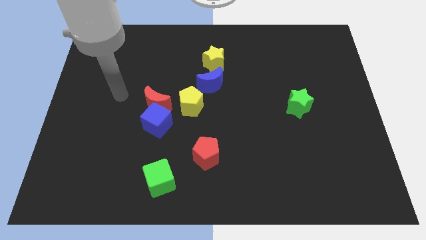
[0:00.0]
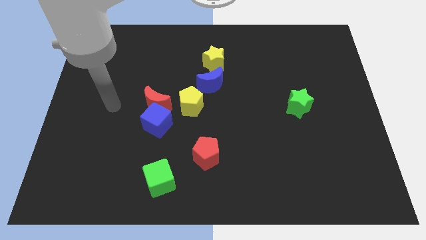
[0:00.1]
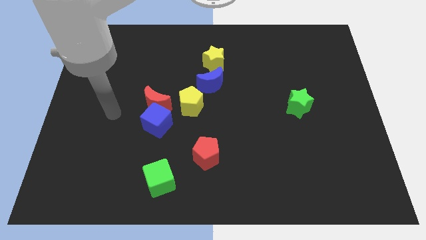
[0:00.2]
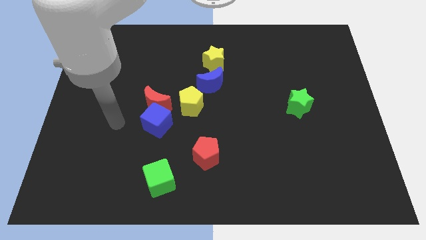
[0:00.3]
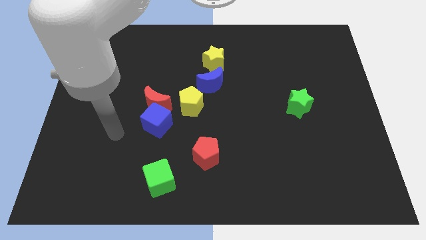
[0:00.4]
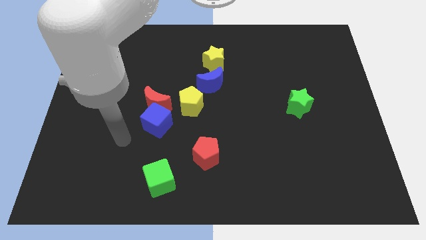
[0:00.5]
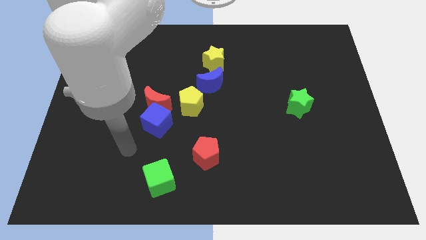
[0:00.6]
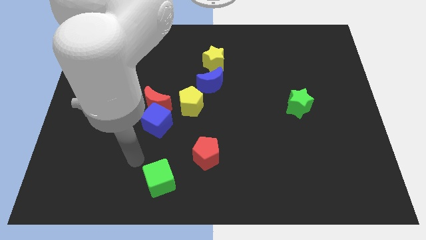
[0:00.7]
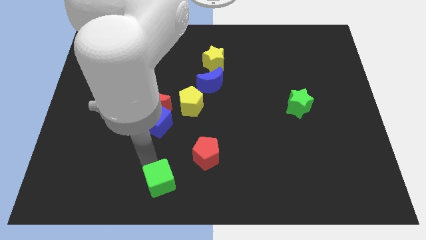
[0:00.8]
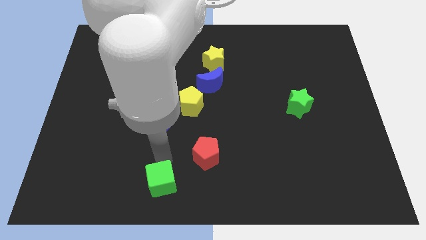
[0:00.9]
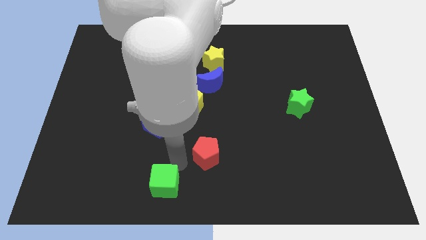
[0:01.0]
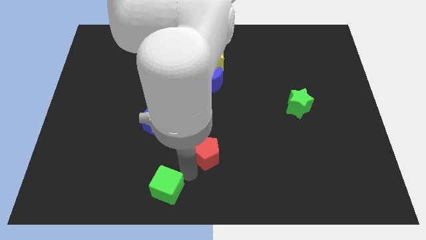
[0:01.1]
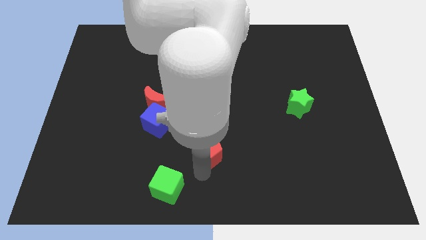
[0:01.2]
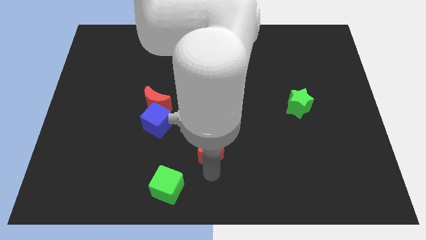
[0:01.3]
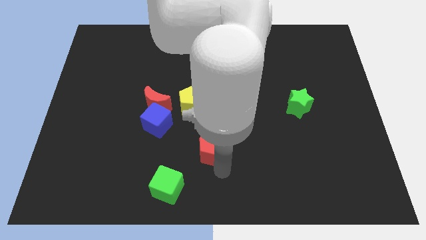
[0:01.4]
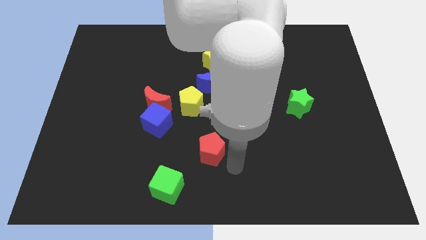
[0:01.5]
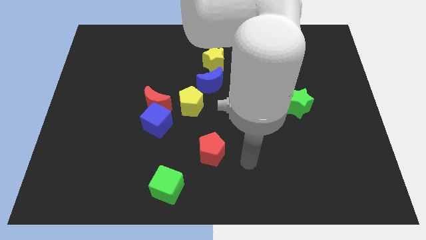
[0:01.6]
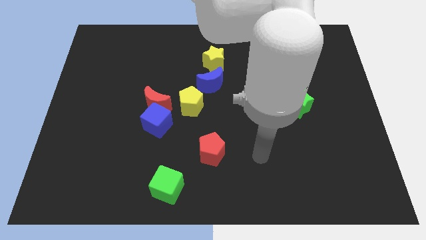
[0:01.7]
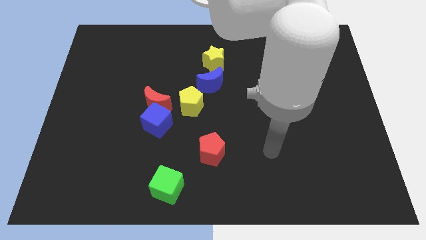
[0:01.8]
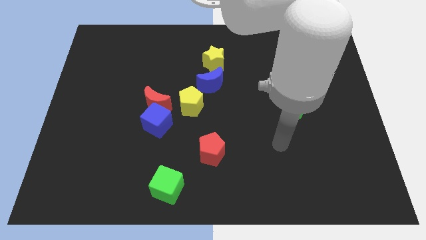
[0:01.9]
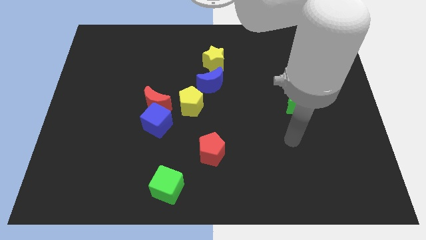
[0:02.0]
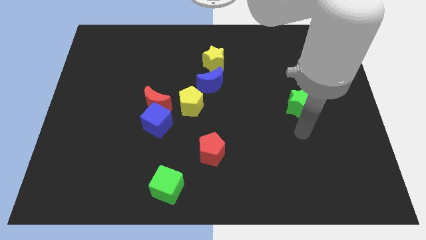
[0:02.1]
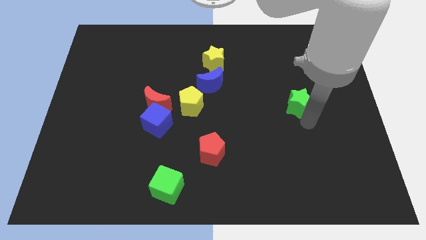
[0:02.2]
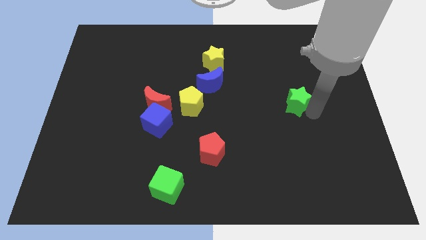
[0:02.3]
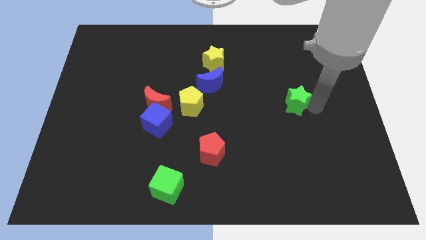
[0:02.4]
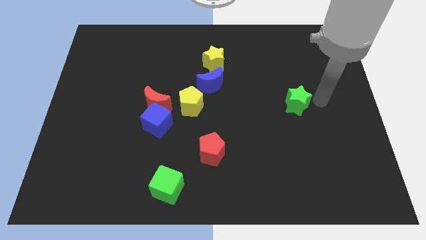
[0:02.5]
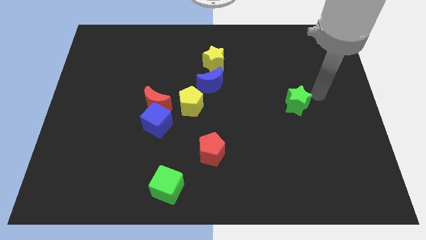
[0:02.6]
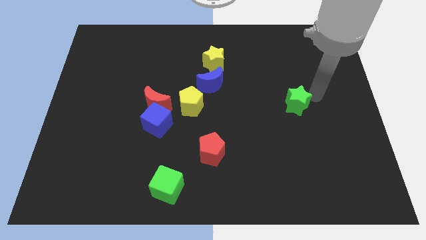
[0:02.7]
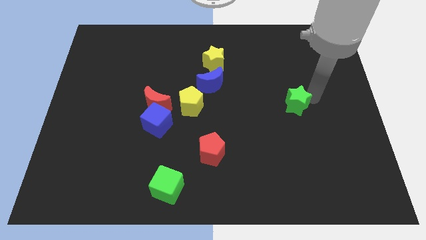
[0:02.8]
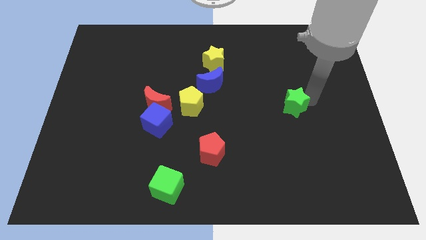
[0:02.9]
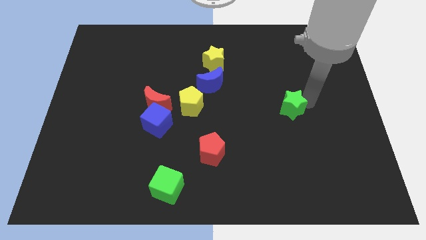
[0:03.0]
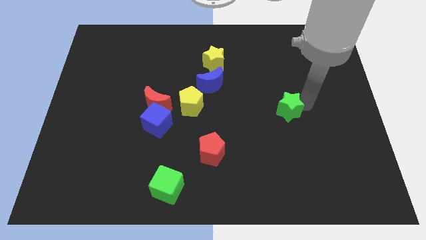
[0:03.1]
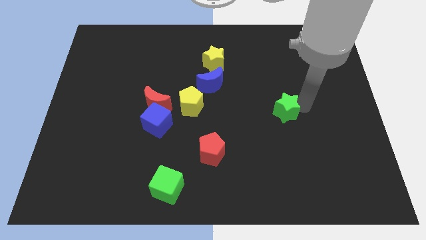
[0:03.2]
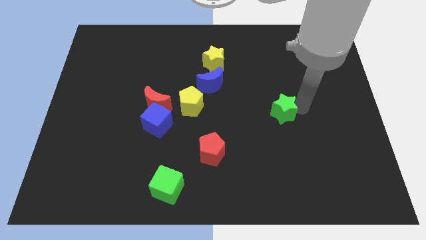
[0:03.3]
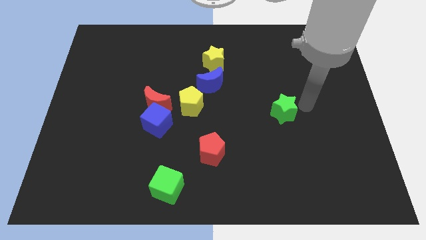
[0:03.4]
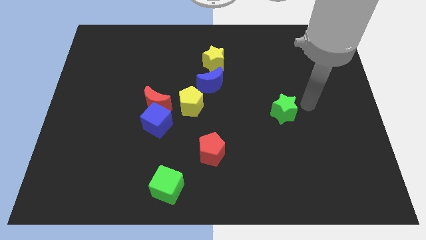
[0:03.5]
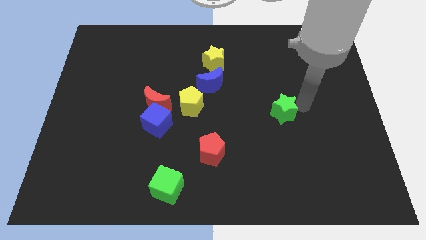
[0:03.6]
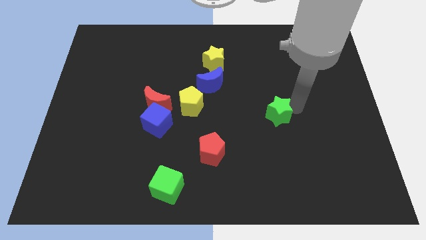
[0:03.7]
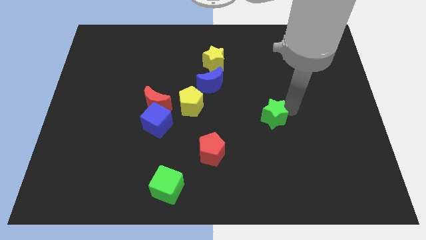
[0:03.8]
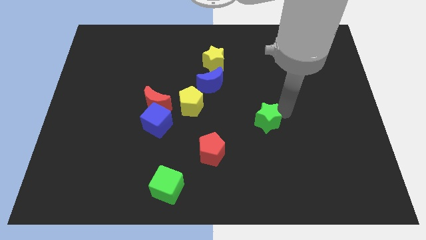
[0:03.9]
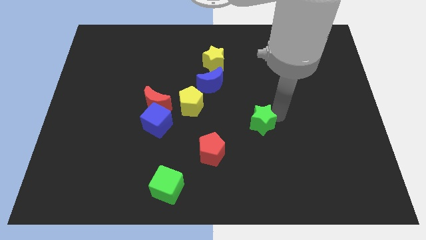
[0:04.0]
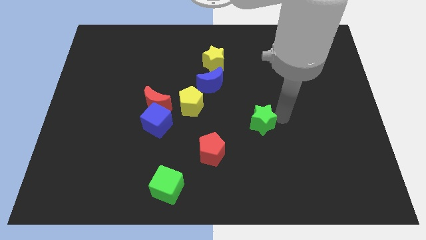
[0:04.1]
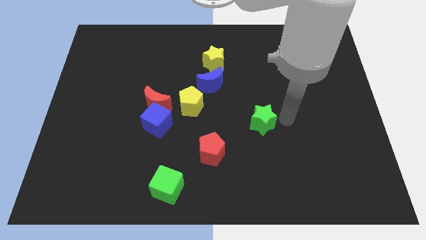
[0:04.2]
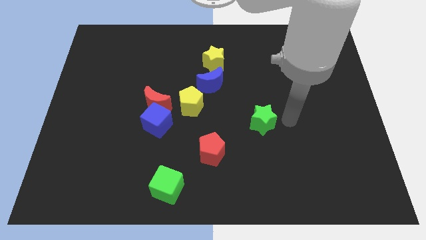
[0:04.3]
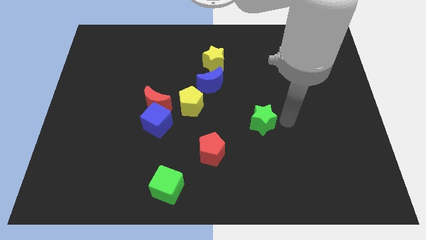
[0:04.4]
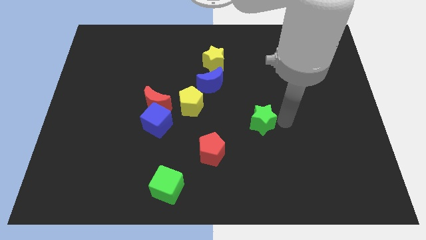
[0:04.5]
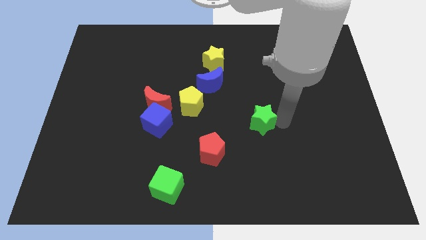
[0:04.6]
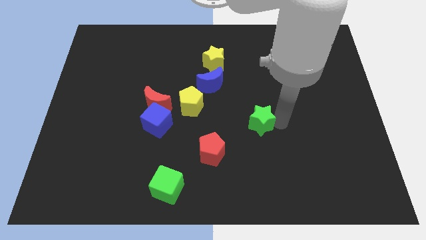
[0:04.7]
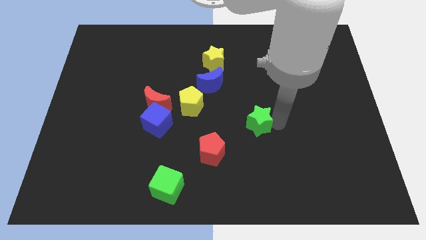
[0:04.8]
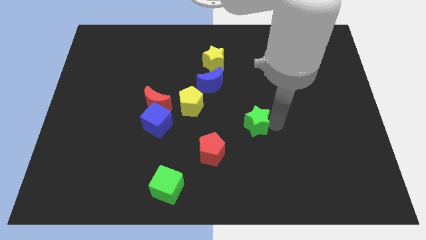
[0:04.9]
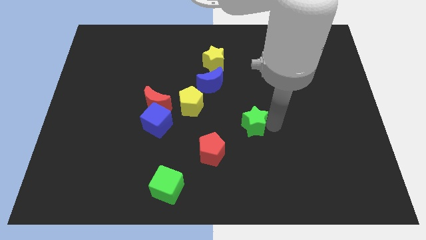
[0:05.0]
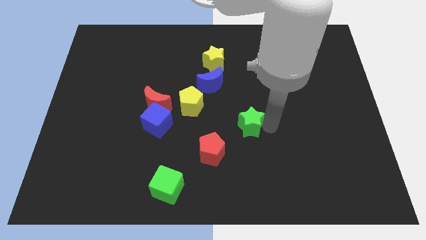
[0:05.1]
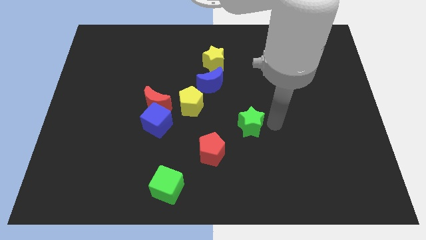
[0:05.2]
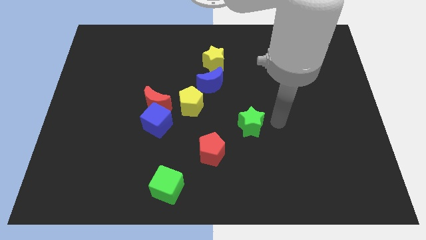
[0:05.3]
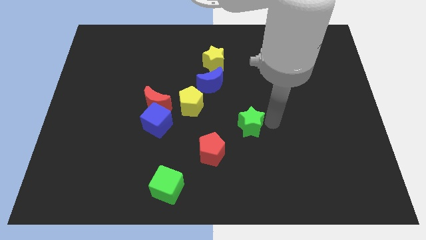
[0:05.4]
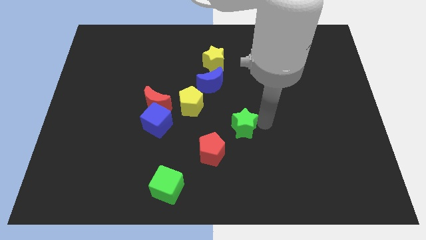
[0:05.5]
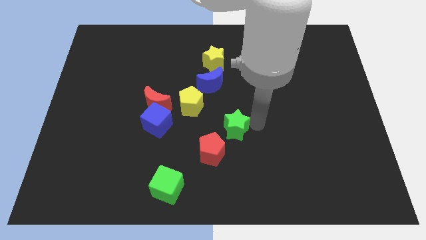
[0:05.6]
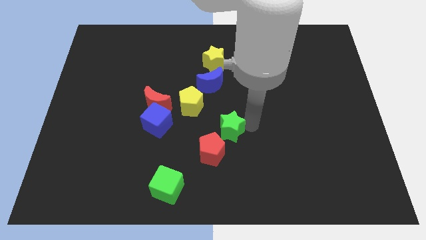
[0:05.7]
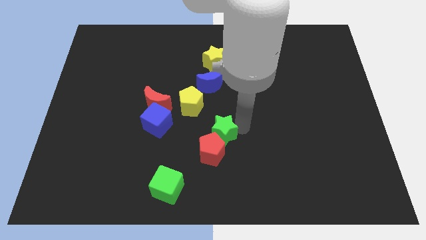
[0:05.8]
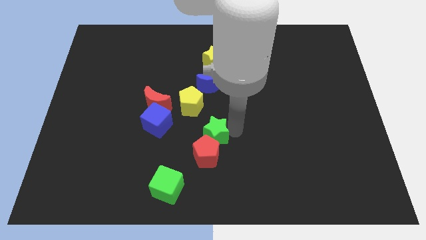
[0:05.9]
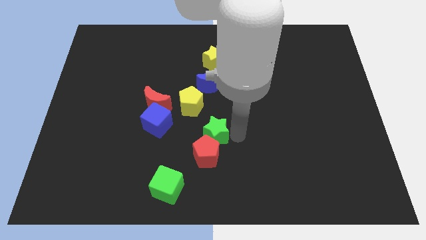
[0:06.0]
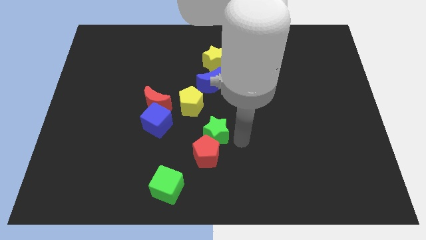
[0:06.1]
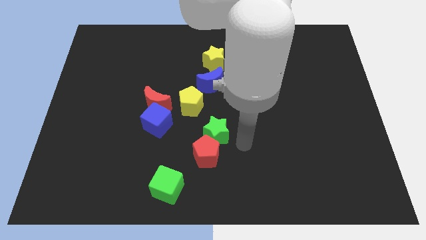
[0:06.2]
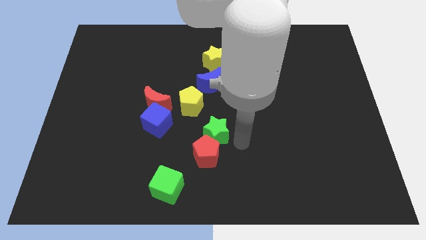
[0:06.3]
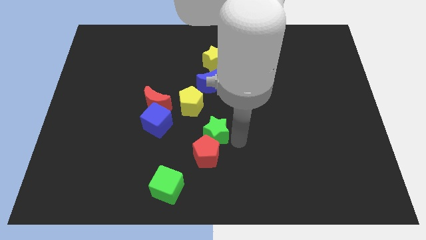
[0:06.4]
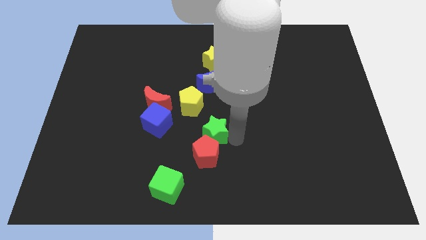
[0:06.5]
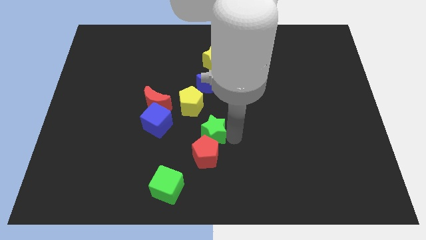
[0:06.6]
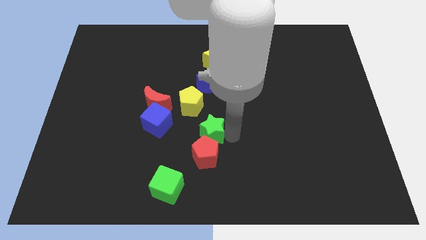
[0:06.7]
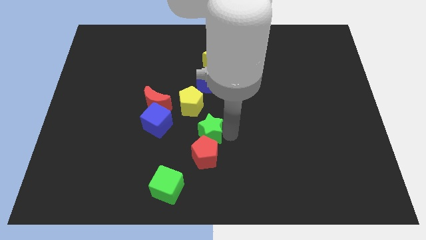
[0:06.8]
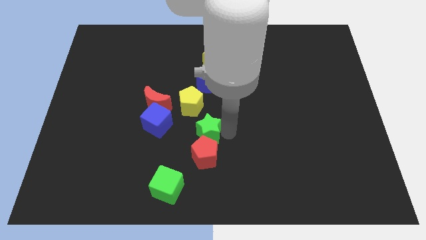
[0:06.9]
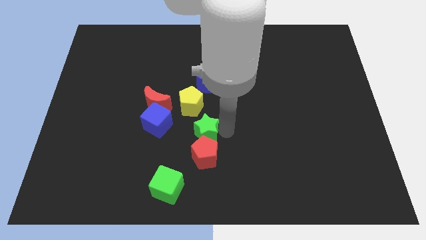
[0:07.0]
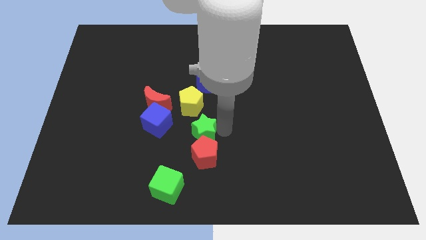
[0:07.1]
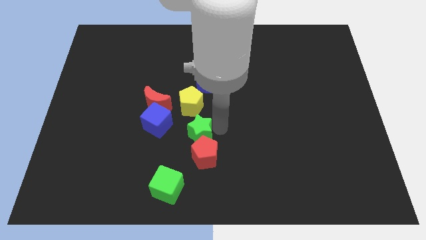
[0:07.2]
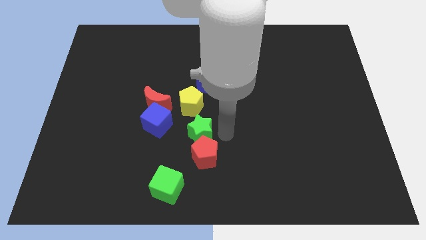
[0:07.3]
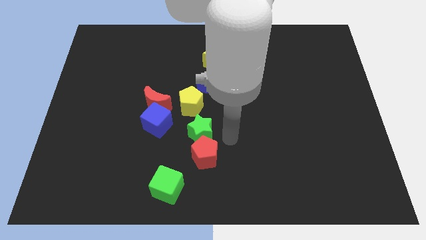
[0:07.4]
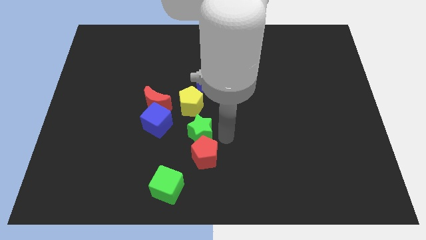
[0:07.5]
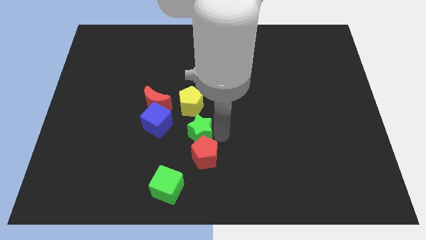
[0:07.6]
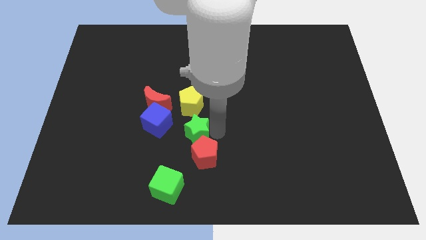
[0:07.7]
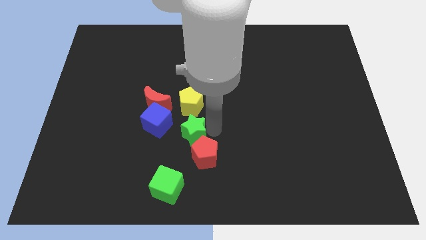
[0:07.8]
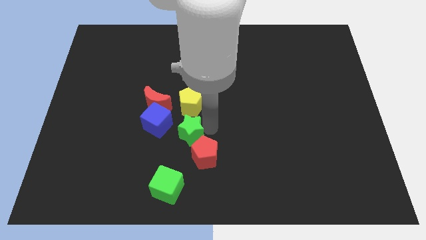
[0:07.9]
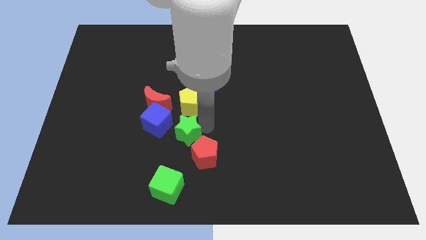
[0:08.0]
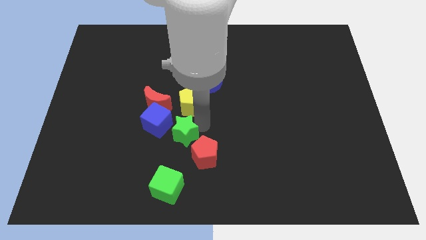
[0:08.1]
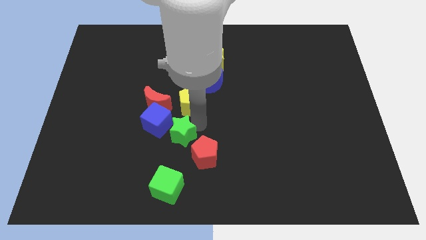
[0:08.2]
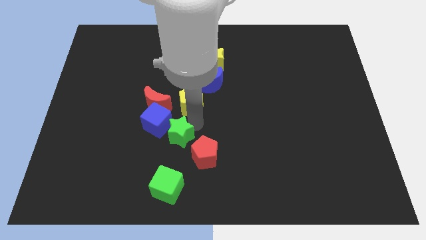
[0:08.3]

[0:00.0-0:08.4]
put the green star towards the blue cube
